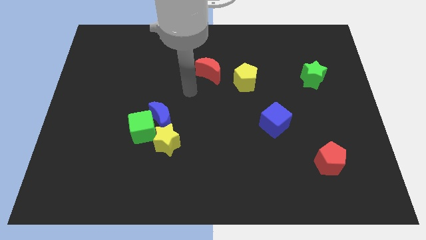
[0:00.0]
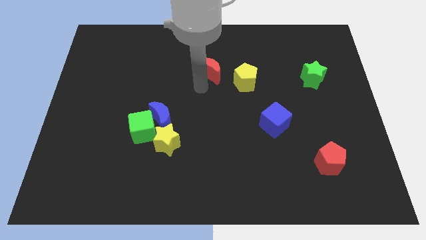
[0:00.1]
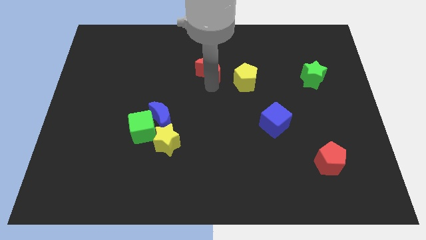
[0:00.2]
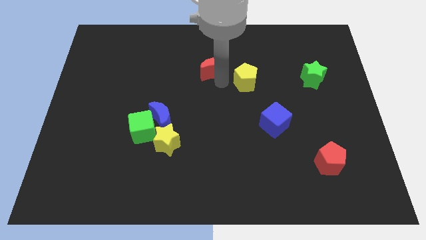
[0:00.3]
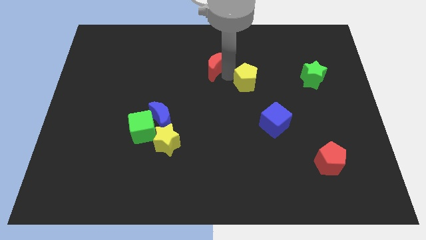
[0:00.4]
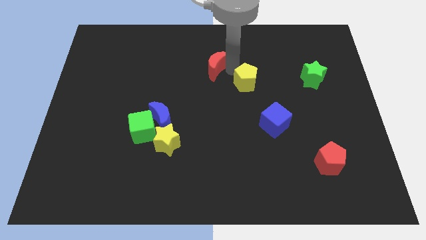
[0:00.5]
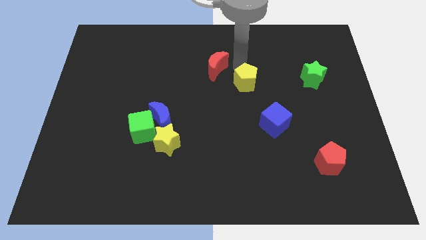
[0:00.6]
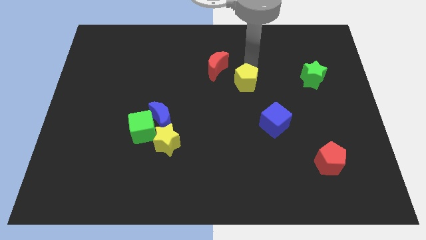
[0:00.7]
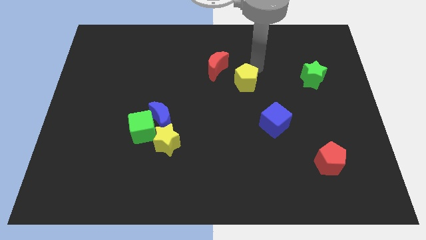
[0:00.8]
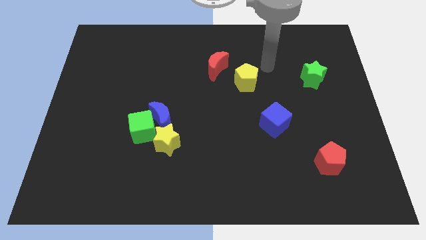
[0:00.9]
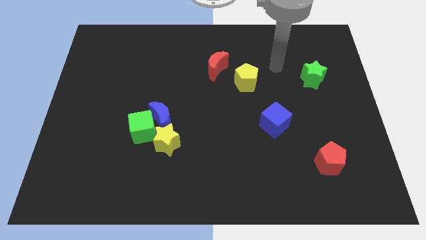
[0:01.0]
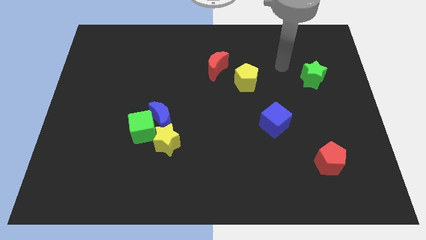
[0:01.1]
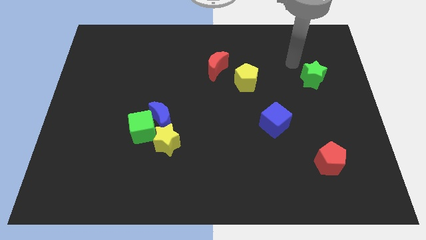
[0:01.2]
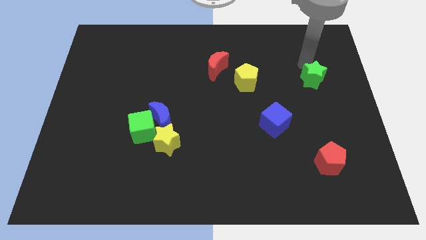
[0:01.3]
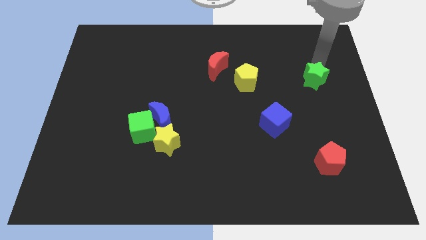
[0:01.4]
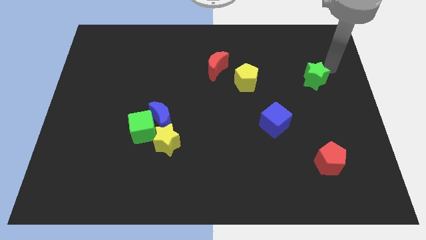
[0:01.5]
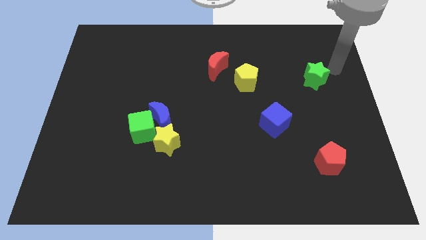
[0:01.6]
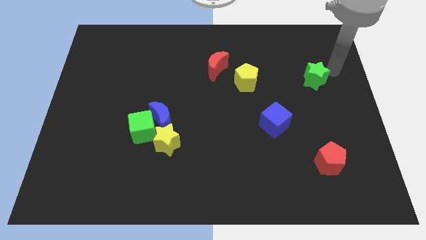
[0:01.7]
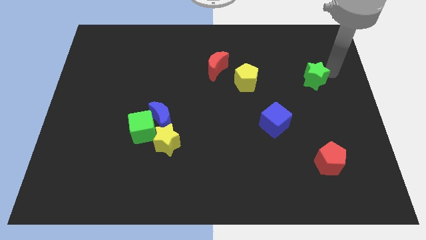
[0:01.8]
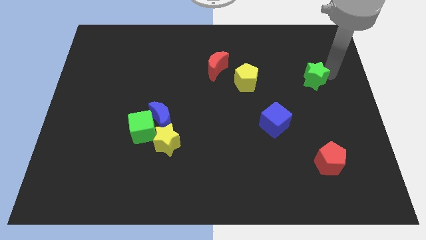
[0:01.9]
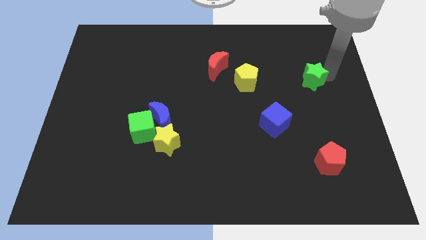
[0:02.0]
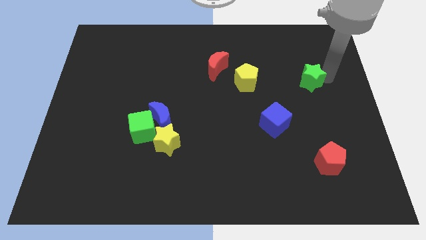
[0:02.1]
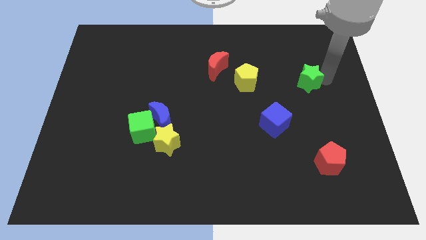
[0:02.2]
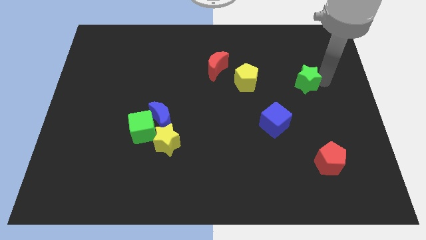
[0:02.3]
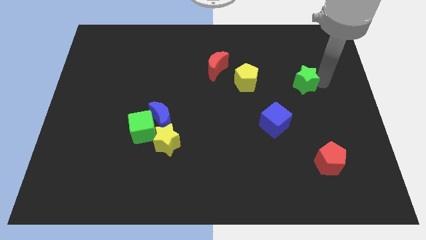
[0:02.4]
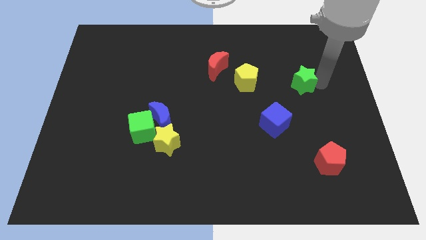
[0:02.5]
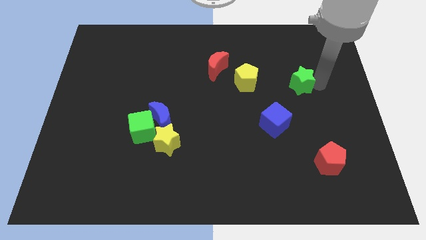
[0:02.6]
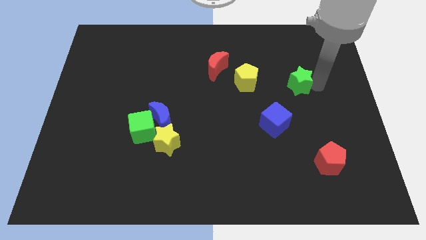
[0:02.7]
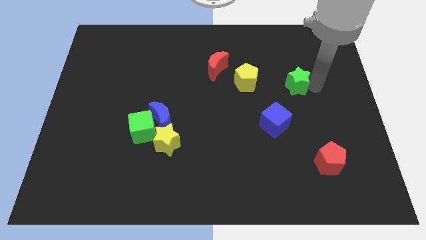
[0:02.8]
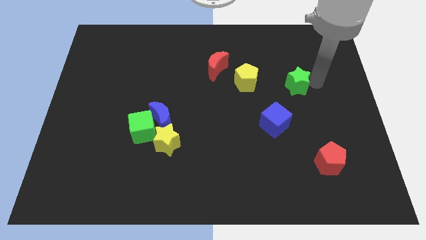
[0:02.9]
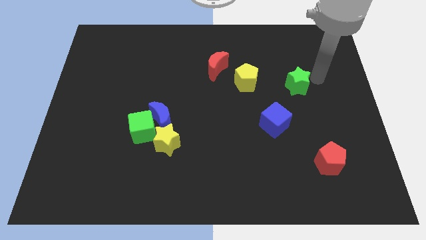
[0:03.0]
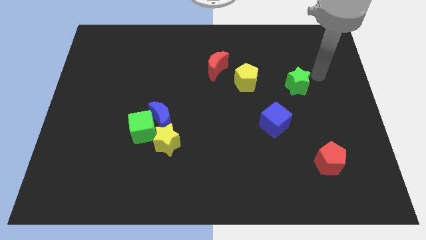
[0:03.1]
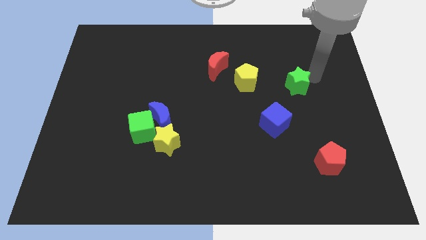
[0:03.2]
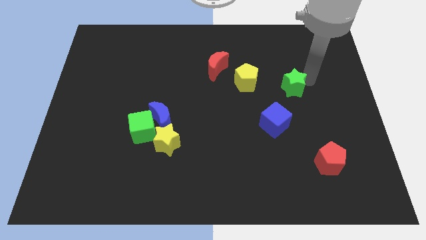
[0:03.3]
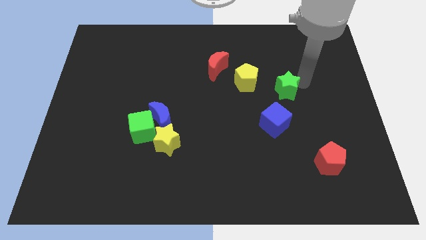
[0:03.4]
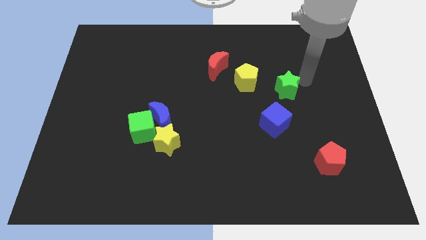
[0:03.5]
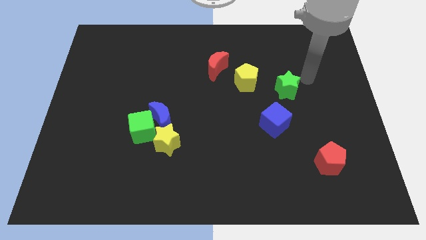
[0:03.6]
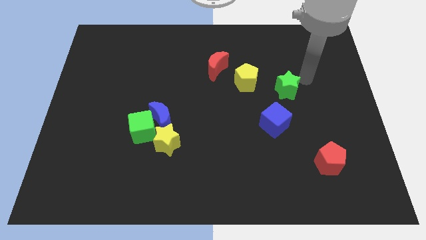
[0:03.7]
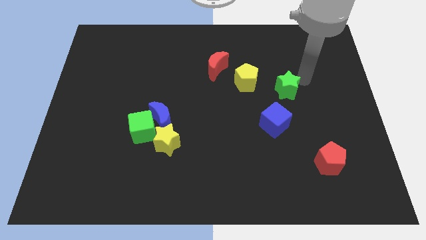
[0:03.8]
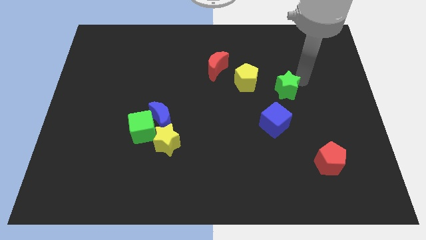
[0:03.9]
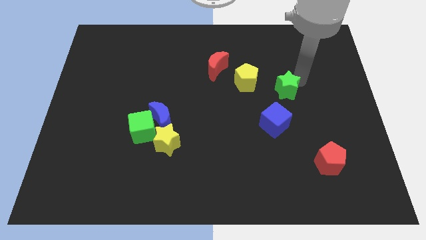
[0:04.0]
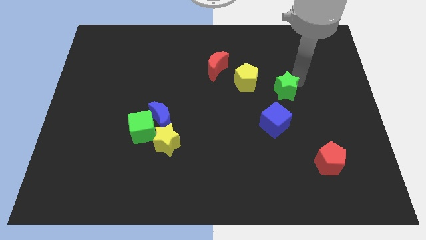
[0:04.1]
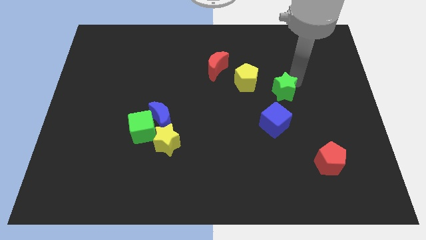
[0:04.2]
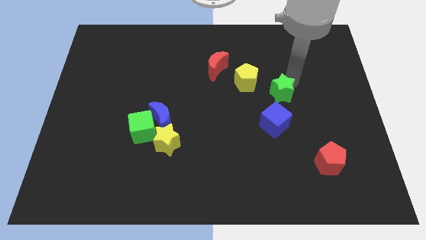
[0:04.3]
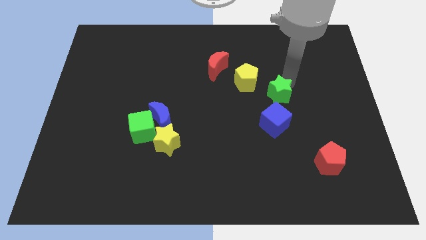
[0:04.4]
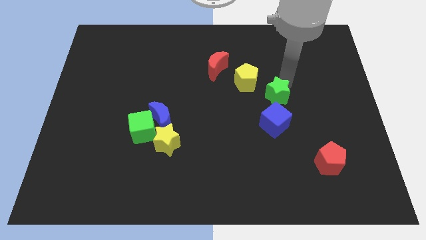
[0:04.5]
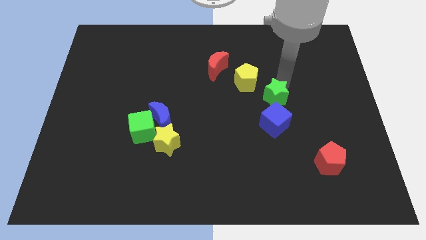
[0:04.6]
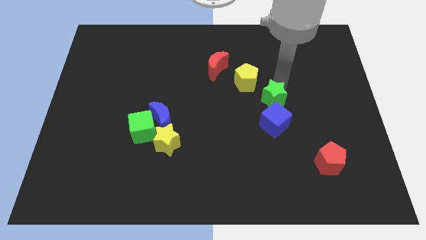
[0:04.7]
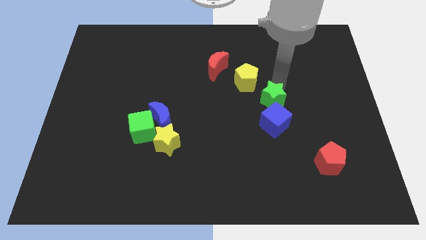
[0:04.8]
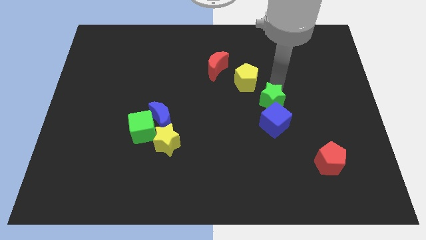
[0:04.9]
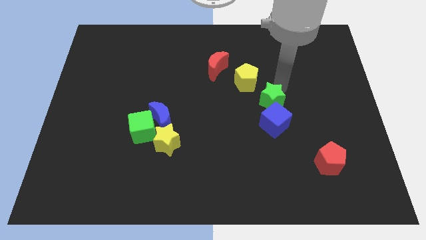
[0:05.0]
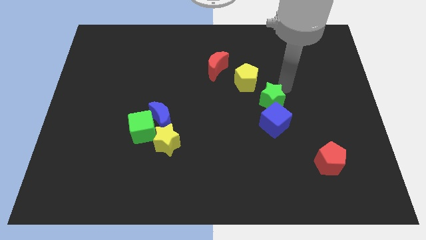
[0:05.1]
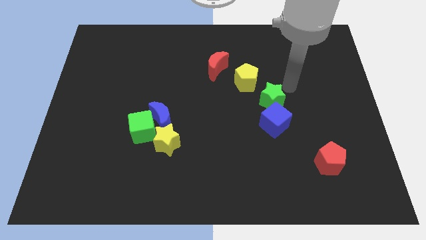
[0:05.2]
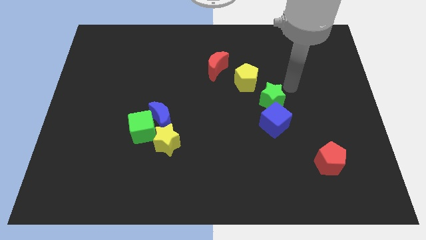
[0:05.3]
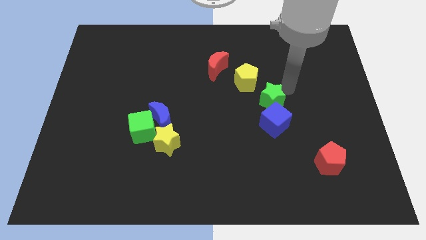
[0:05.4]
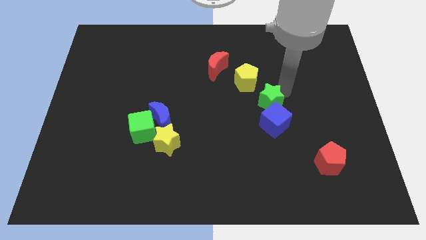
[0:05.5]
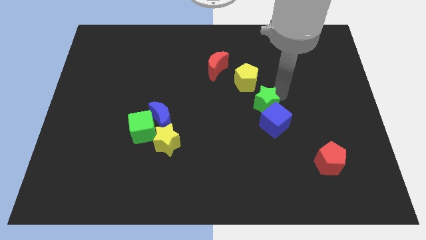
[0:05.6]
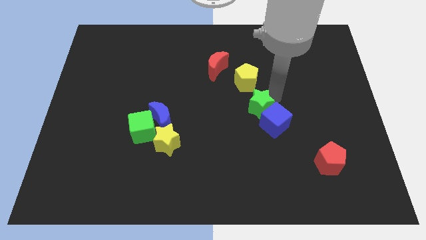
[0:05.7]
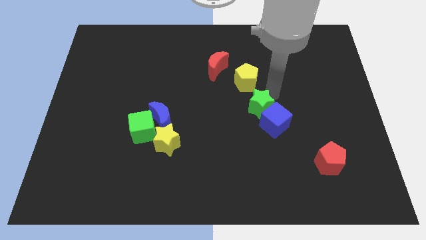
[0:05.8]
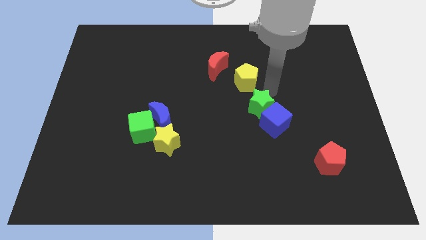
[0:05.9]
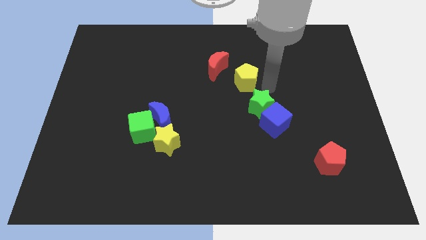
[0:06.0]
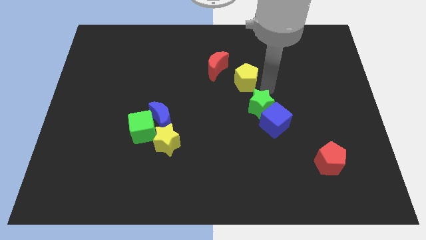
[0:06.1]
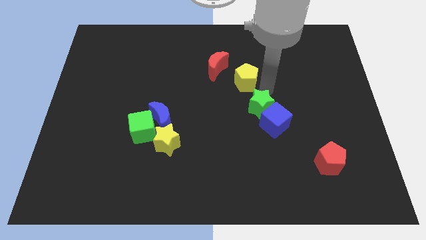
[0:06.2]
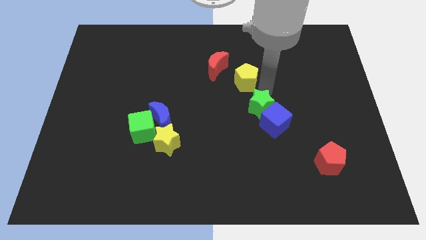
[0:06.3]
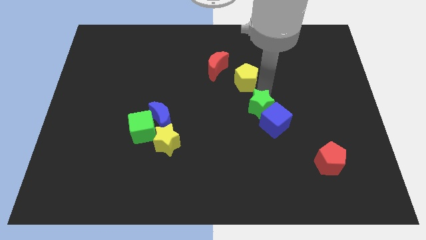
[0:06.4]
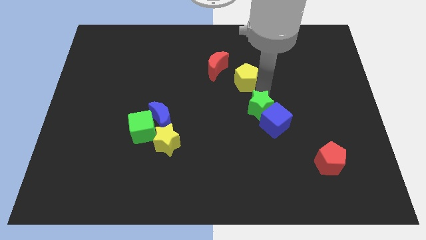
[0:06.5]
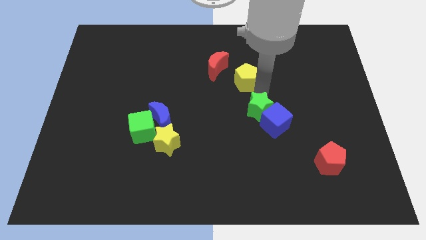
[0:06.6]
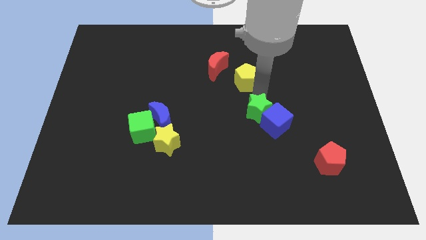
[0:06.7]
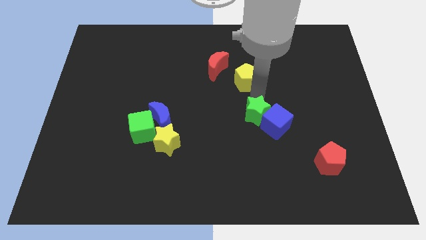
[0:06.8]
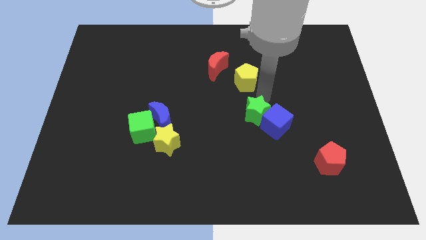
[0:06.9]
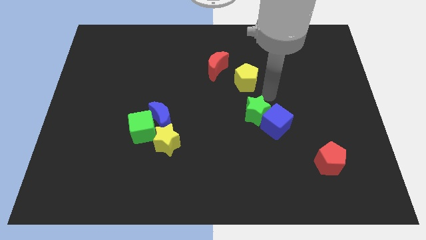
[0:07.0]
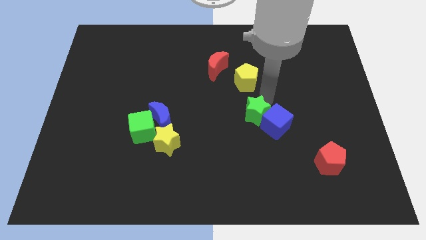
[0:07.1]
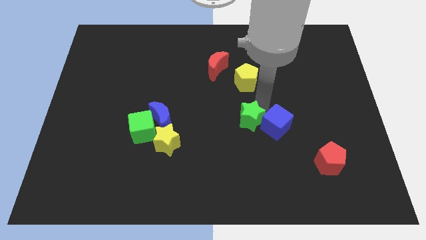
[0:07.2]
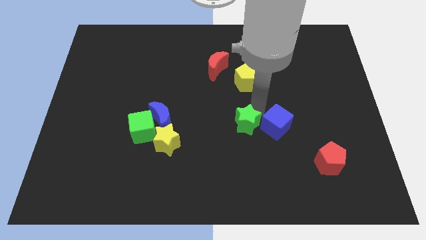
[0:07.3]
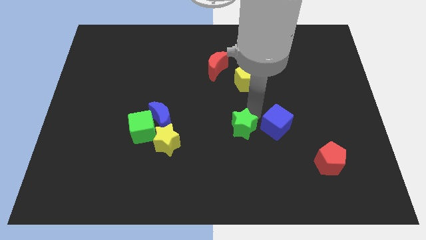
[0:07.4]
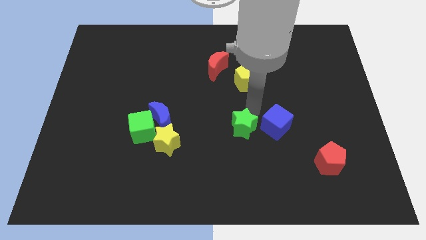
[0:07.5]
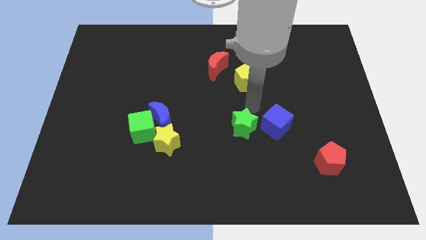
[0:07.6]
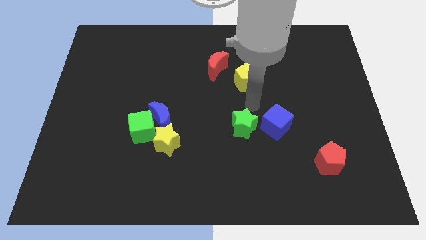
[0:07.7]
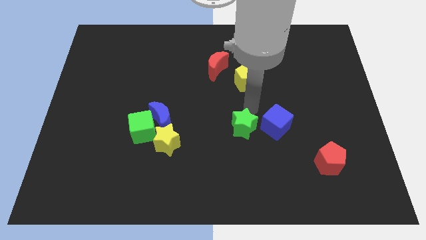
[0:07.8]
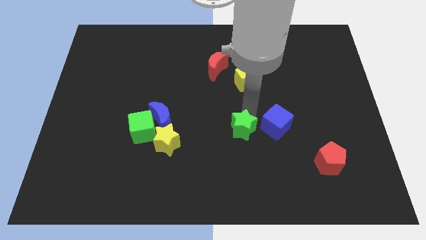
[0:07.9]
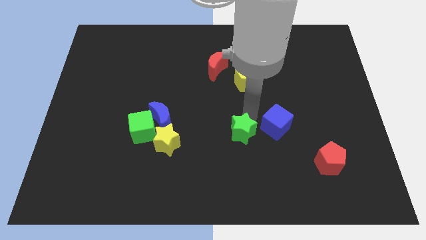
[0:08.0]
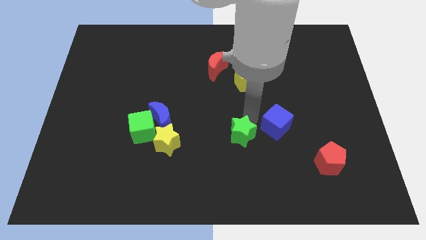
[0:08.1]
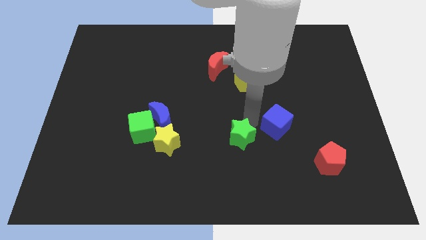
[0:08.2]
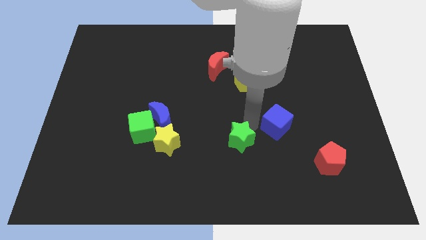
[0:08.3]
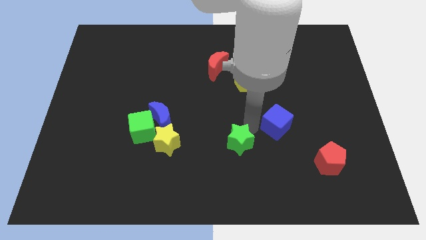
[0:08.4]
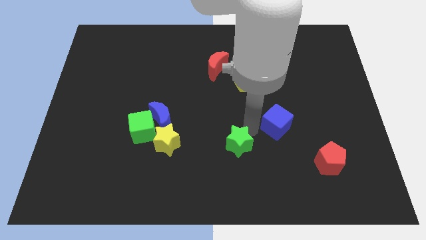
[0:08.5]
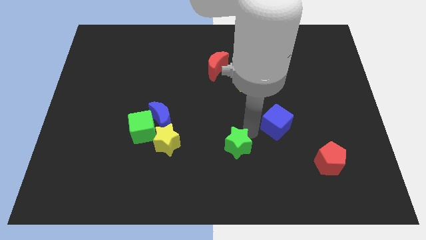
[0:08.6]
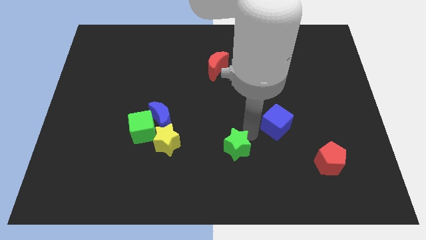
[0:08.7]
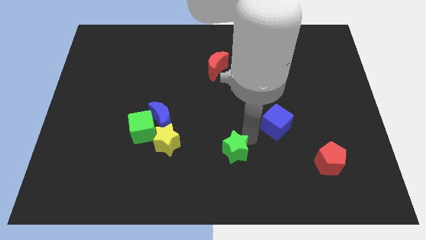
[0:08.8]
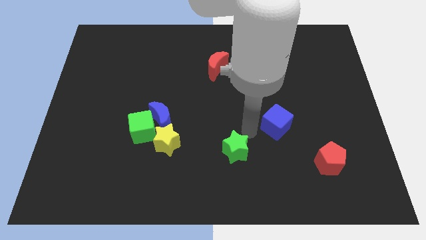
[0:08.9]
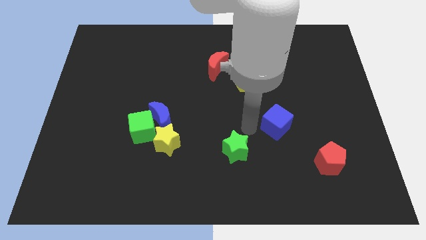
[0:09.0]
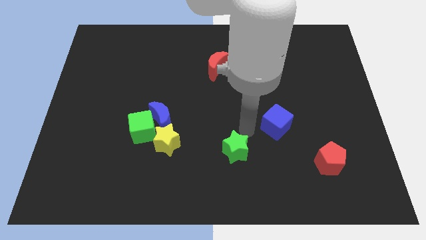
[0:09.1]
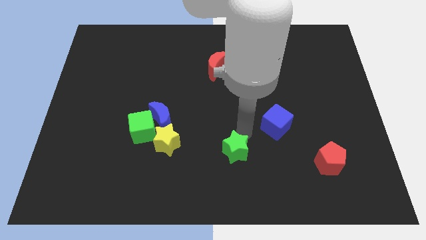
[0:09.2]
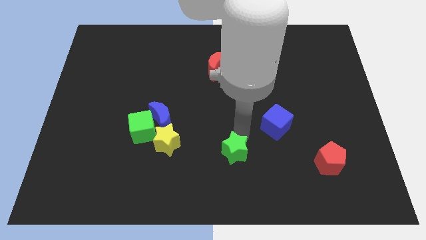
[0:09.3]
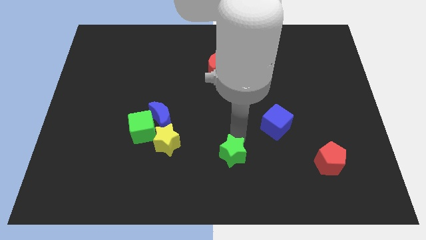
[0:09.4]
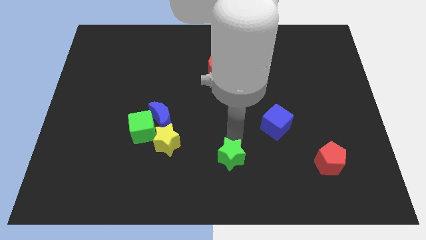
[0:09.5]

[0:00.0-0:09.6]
put the green star to the bottom side
